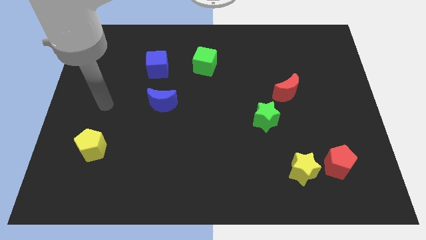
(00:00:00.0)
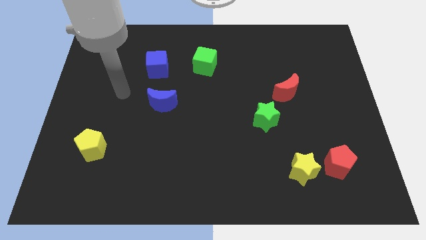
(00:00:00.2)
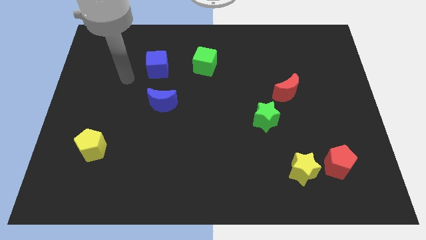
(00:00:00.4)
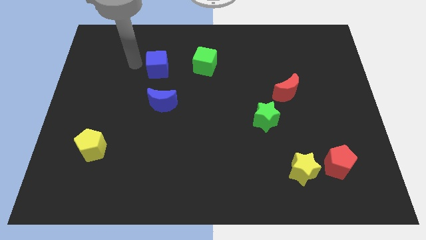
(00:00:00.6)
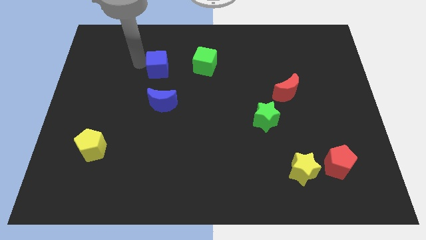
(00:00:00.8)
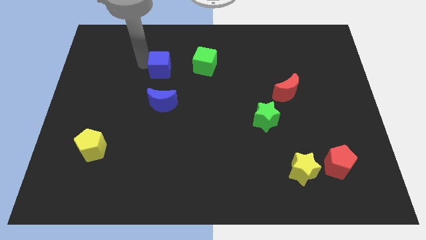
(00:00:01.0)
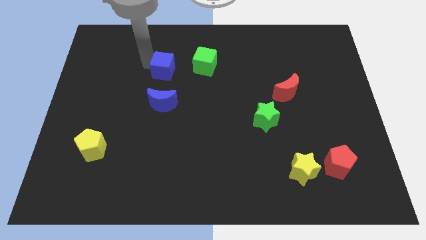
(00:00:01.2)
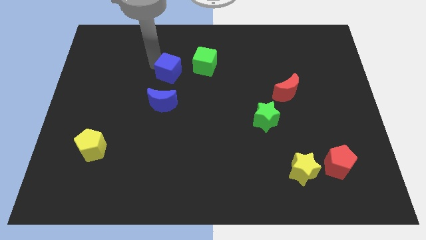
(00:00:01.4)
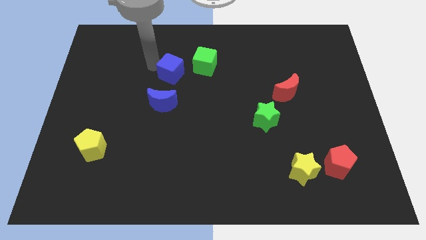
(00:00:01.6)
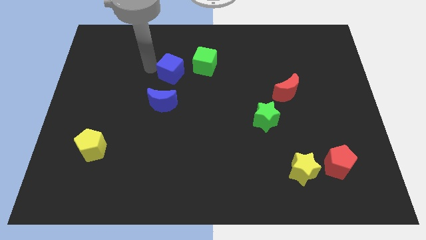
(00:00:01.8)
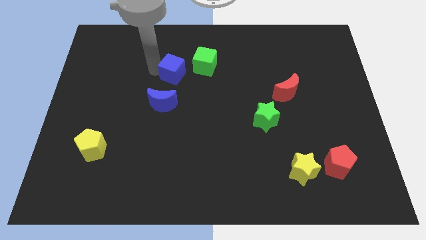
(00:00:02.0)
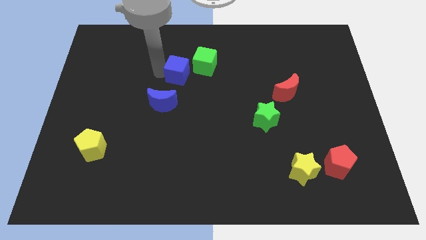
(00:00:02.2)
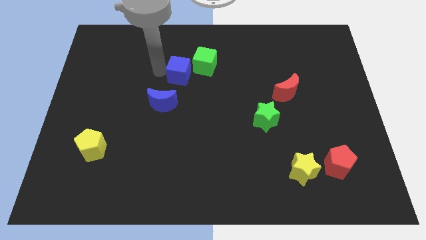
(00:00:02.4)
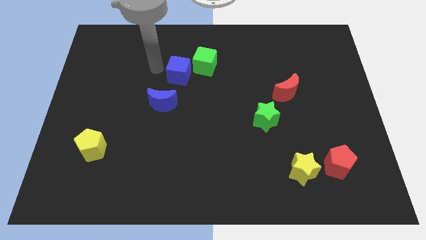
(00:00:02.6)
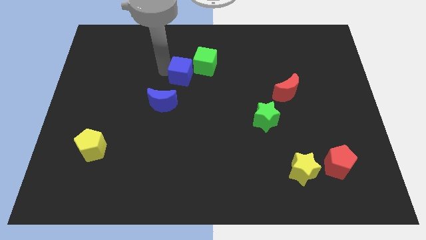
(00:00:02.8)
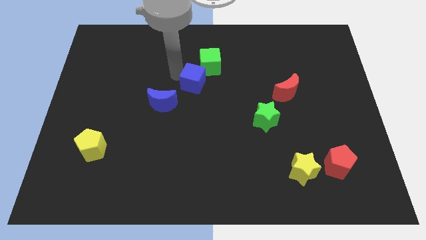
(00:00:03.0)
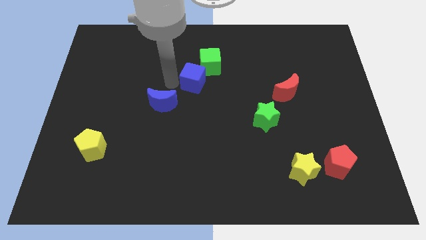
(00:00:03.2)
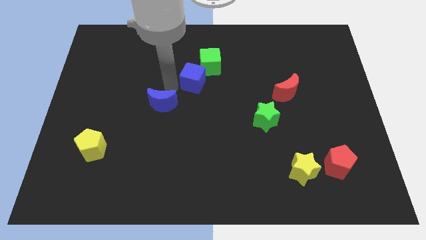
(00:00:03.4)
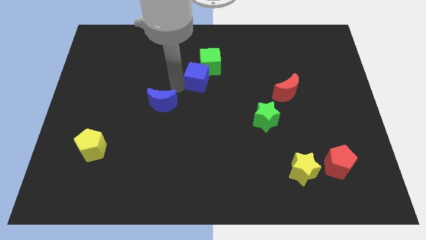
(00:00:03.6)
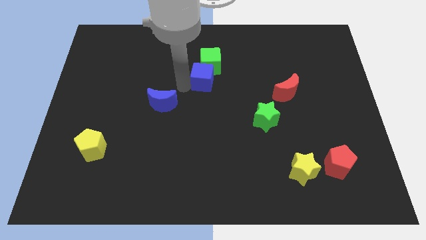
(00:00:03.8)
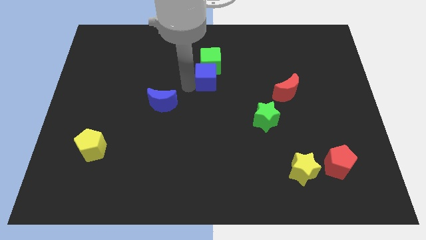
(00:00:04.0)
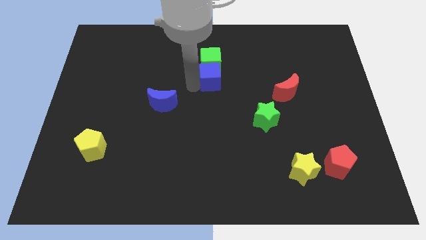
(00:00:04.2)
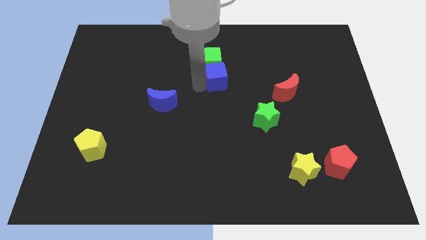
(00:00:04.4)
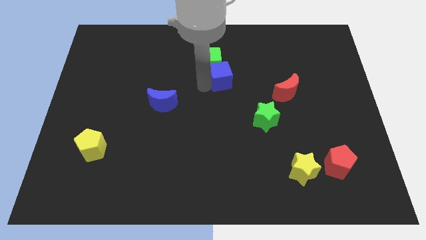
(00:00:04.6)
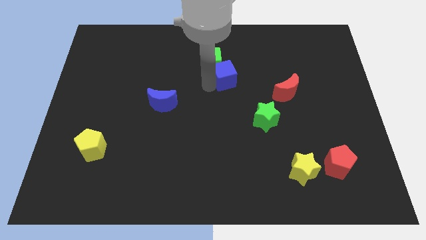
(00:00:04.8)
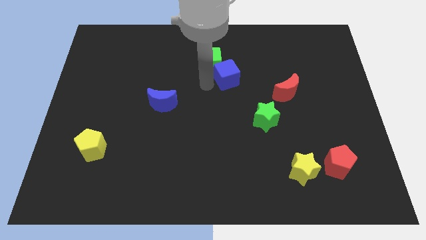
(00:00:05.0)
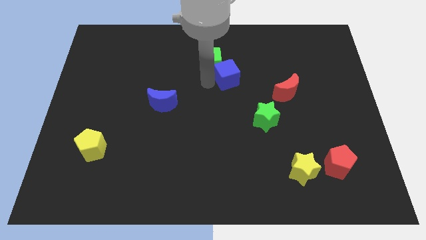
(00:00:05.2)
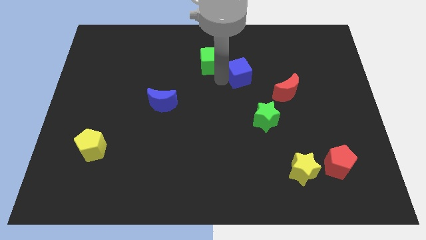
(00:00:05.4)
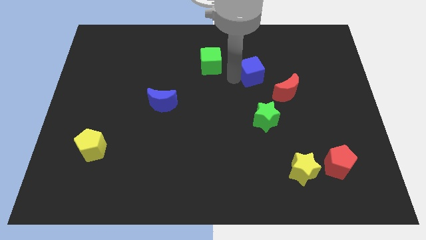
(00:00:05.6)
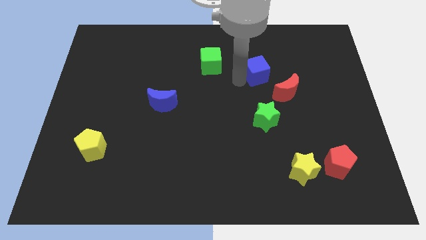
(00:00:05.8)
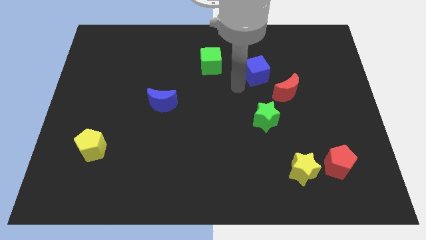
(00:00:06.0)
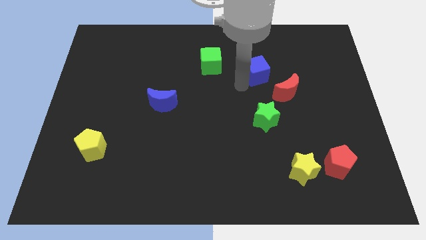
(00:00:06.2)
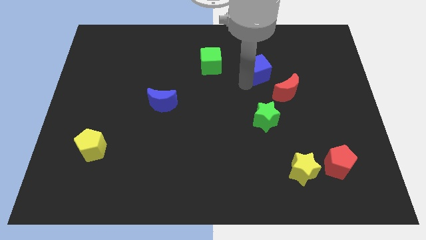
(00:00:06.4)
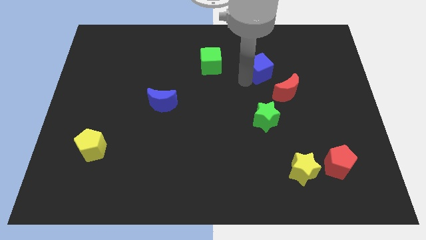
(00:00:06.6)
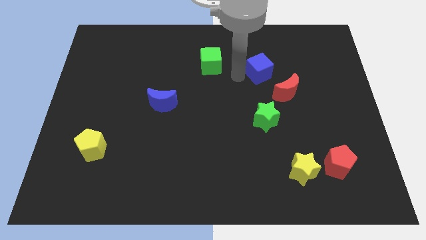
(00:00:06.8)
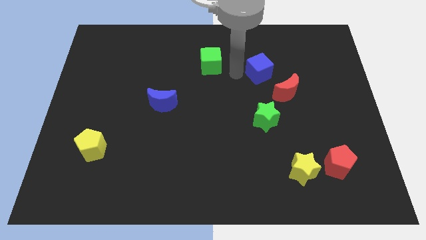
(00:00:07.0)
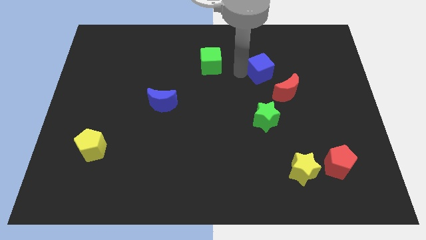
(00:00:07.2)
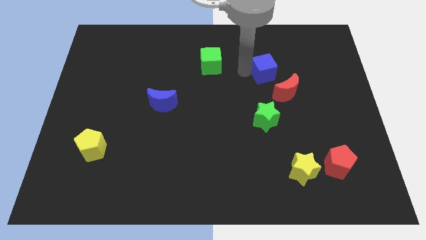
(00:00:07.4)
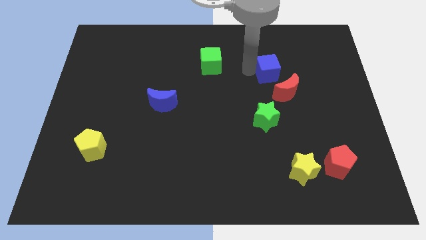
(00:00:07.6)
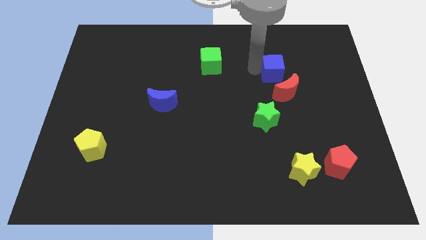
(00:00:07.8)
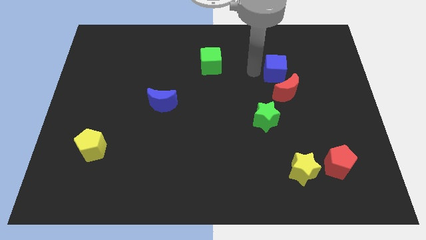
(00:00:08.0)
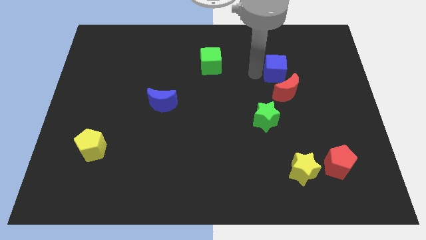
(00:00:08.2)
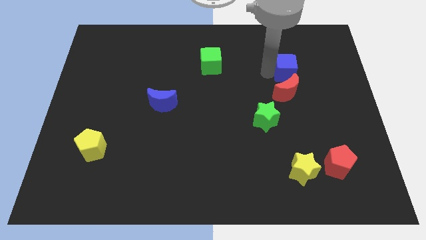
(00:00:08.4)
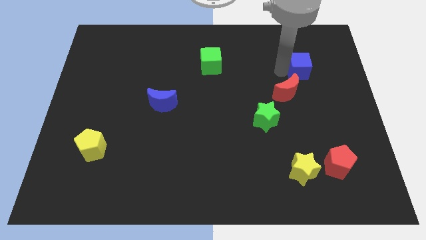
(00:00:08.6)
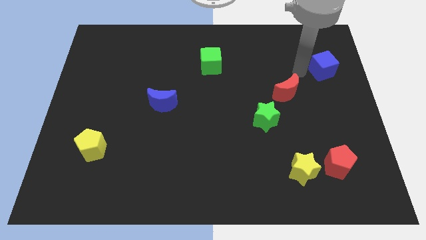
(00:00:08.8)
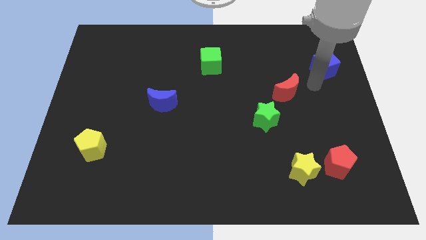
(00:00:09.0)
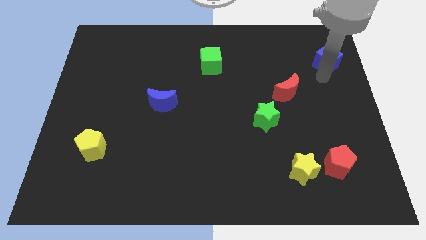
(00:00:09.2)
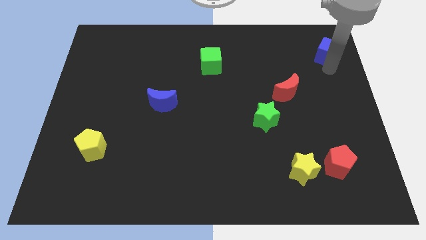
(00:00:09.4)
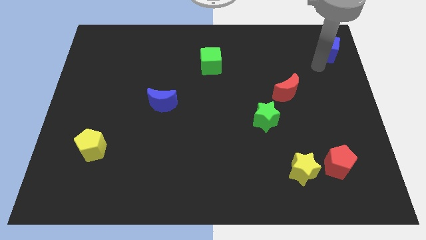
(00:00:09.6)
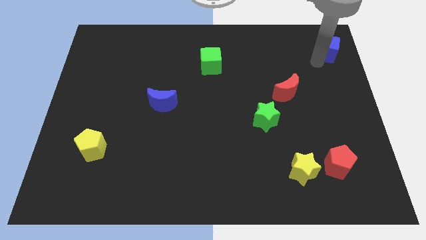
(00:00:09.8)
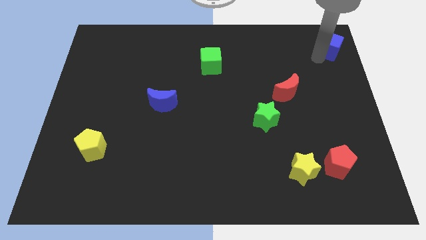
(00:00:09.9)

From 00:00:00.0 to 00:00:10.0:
move the blue cube to the top right corner

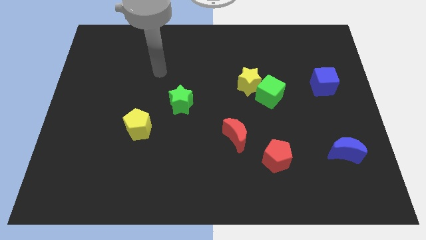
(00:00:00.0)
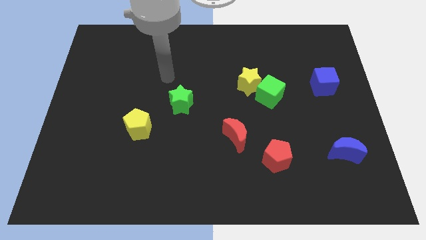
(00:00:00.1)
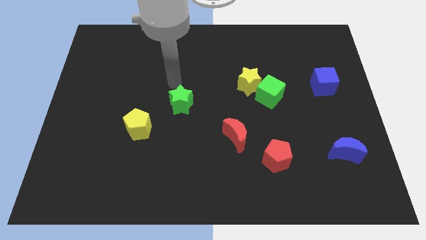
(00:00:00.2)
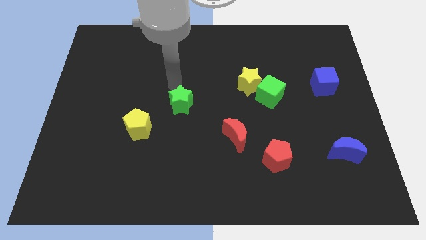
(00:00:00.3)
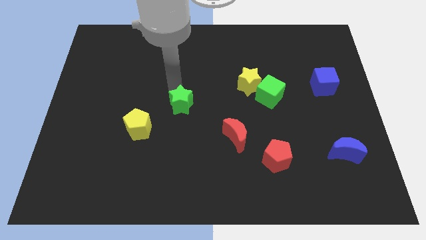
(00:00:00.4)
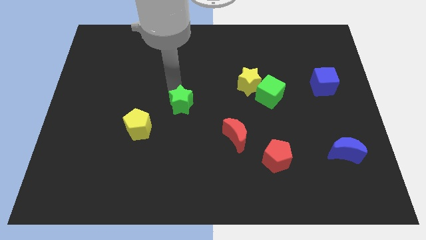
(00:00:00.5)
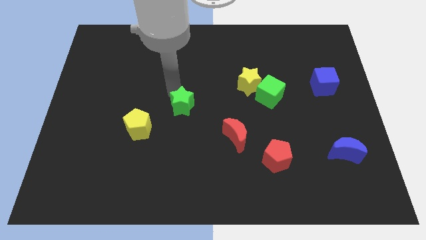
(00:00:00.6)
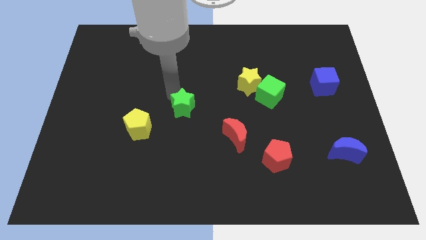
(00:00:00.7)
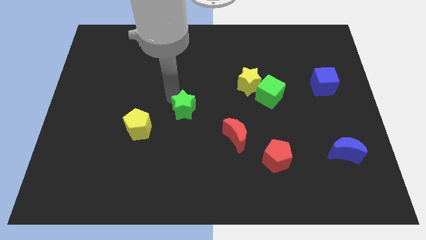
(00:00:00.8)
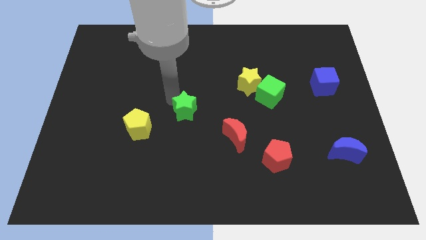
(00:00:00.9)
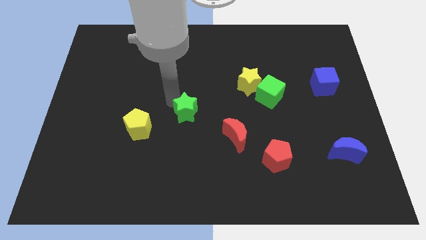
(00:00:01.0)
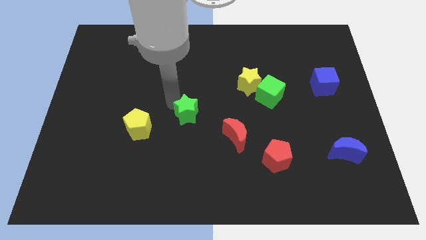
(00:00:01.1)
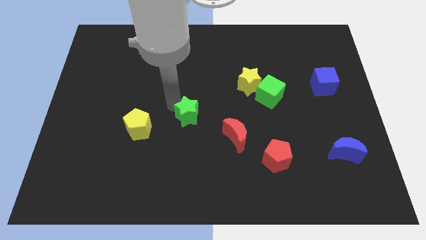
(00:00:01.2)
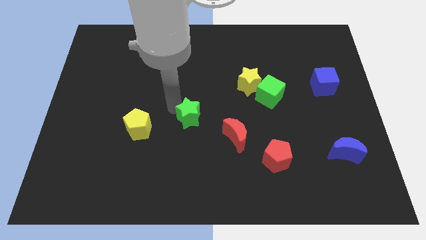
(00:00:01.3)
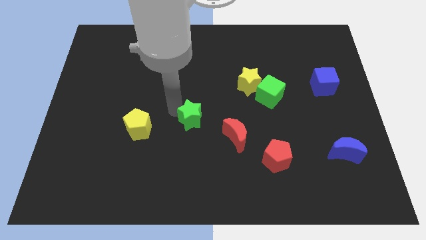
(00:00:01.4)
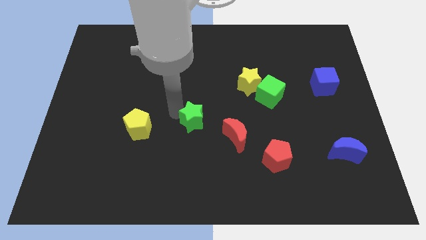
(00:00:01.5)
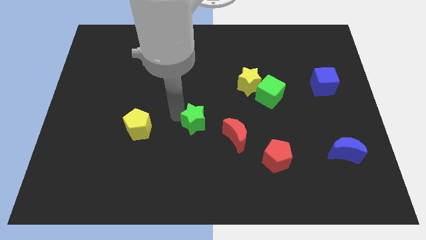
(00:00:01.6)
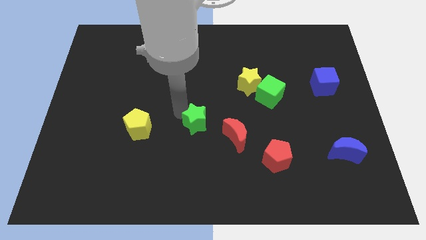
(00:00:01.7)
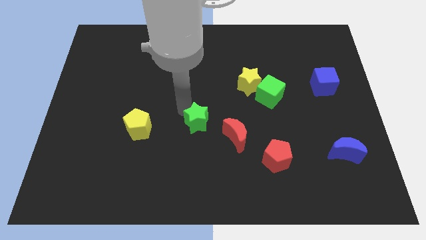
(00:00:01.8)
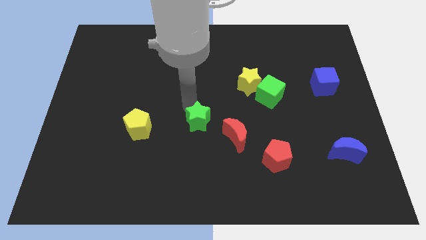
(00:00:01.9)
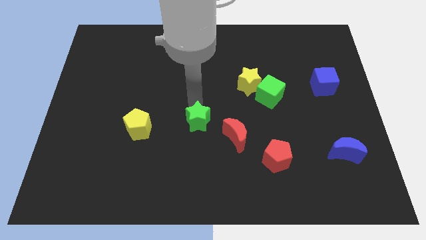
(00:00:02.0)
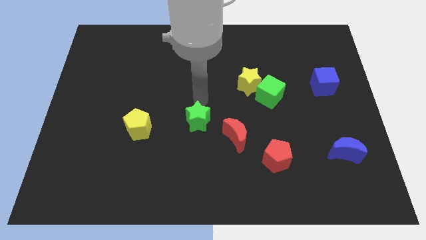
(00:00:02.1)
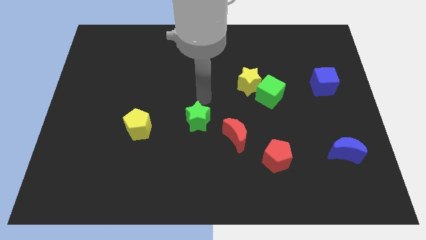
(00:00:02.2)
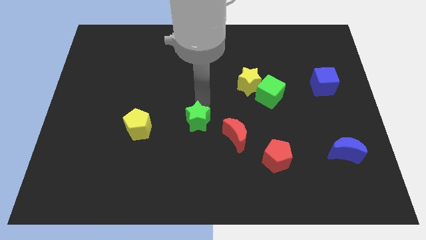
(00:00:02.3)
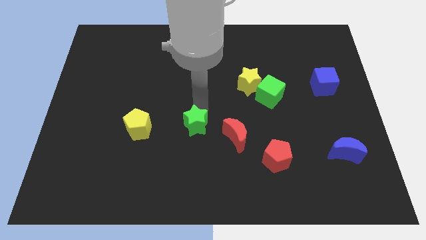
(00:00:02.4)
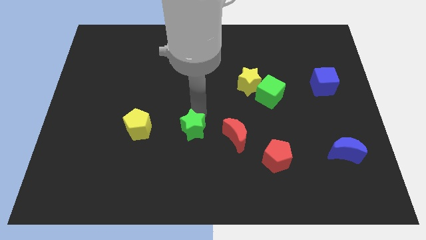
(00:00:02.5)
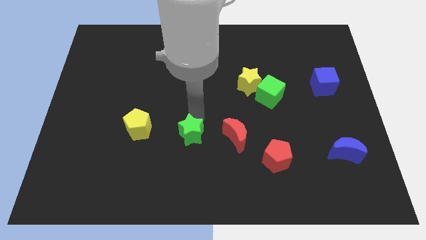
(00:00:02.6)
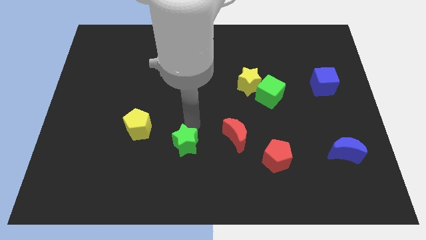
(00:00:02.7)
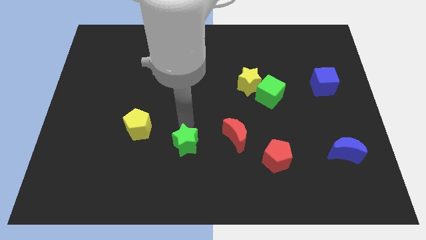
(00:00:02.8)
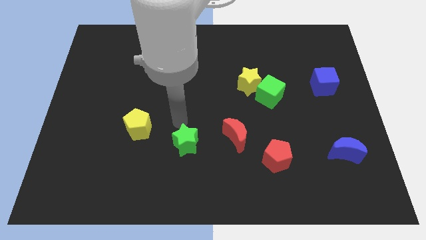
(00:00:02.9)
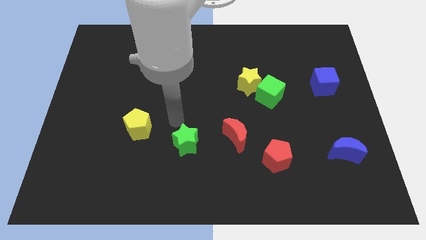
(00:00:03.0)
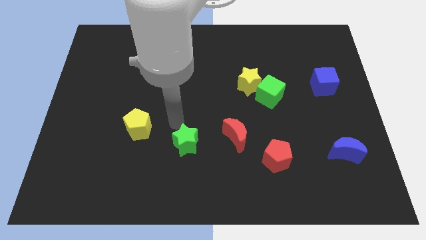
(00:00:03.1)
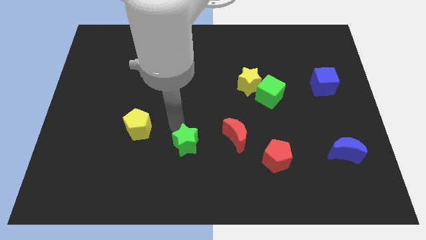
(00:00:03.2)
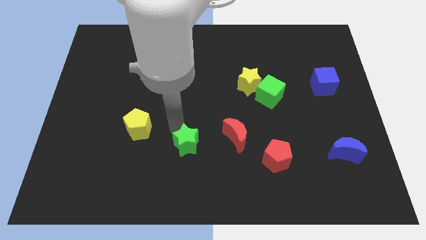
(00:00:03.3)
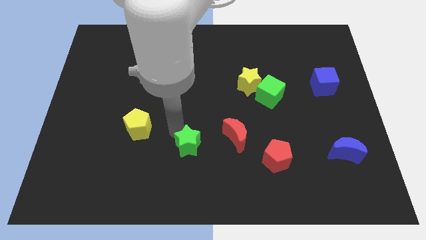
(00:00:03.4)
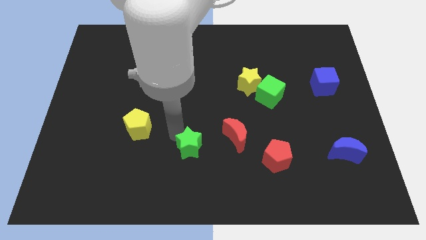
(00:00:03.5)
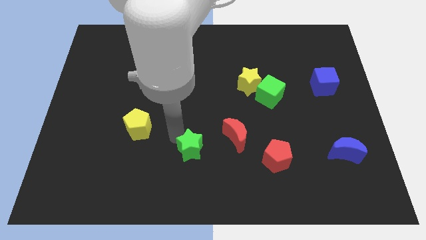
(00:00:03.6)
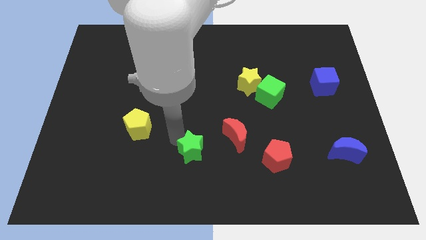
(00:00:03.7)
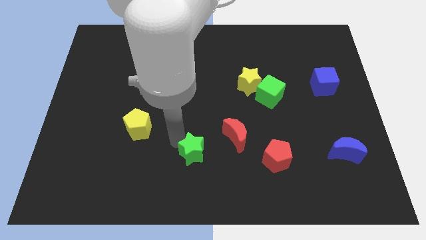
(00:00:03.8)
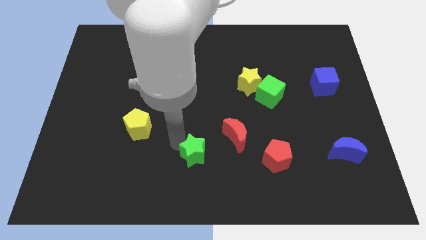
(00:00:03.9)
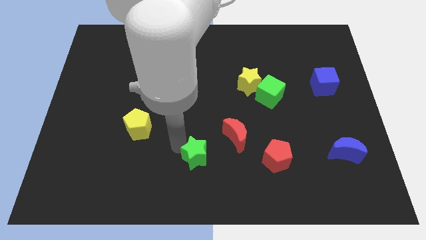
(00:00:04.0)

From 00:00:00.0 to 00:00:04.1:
put the green star to the bottom side
